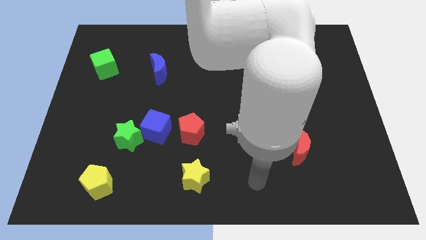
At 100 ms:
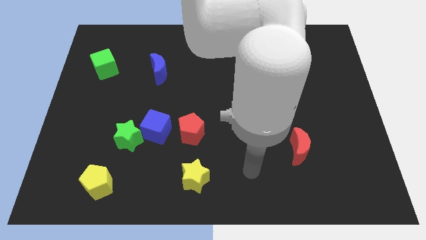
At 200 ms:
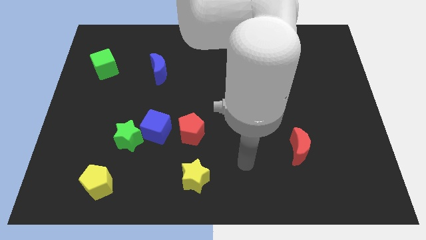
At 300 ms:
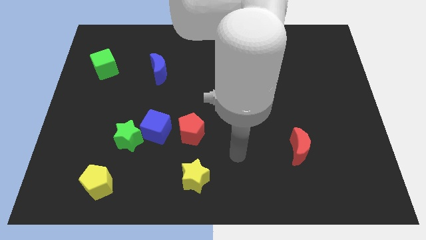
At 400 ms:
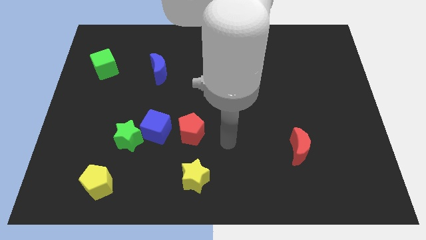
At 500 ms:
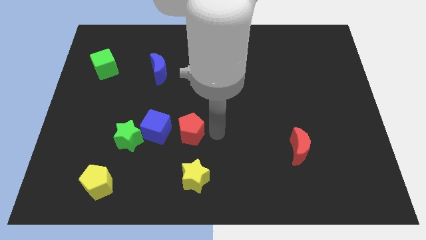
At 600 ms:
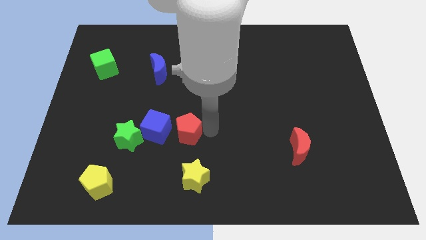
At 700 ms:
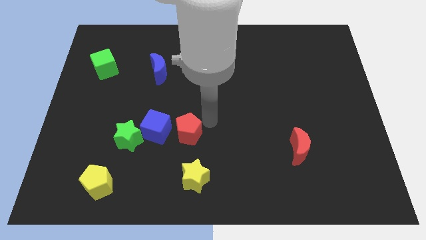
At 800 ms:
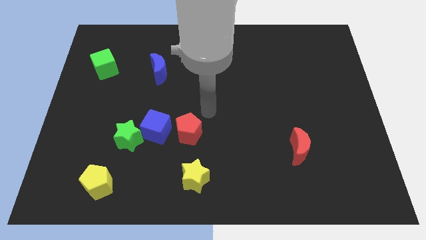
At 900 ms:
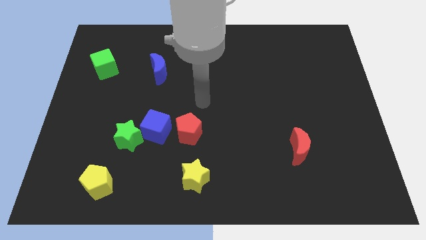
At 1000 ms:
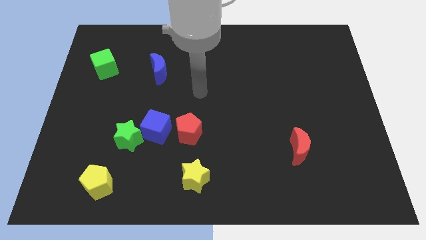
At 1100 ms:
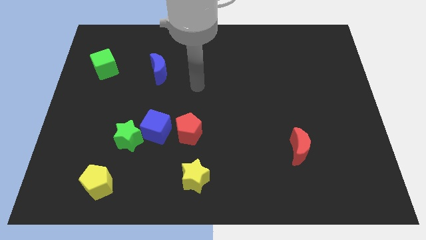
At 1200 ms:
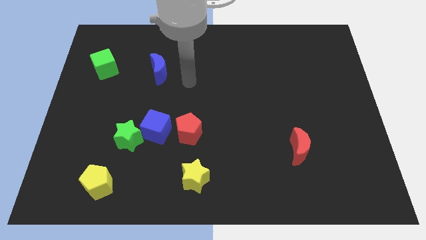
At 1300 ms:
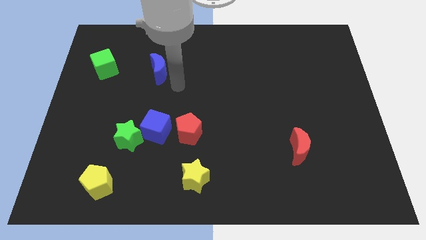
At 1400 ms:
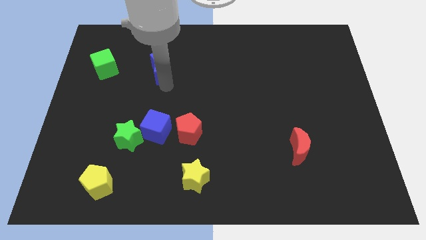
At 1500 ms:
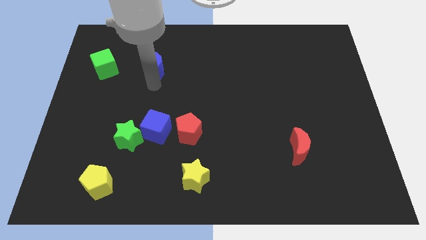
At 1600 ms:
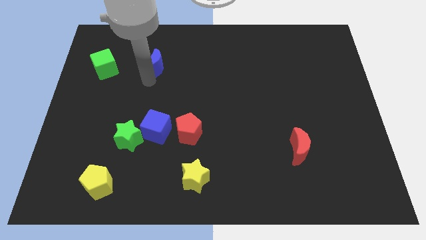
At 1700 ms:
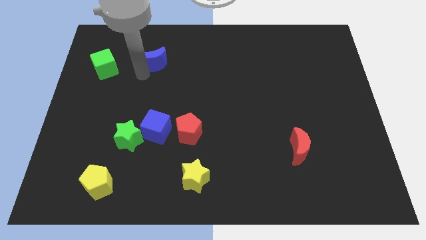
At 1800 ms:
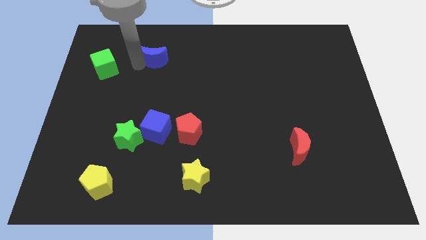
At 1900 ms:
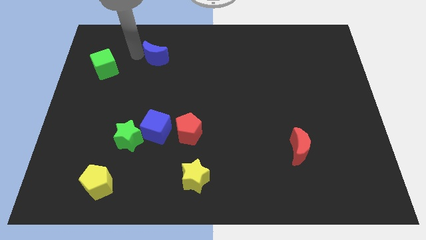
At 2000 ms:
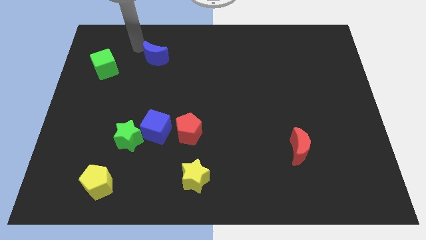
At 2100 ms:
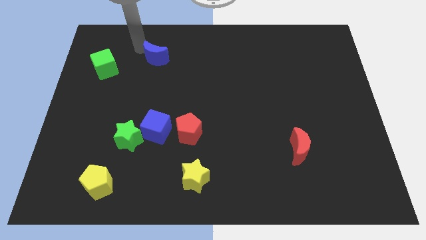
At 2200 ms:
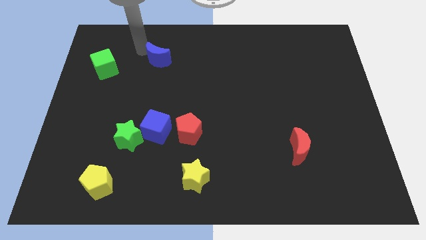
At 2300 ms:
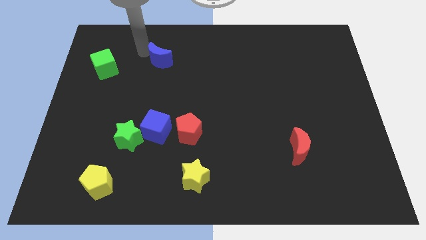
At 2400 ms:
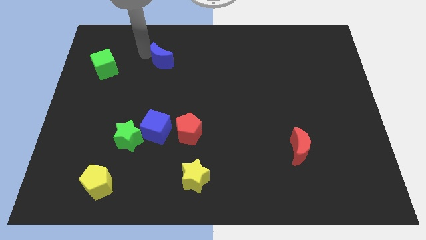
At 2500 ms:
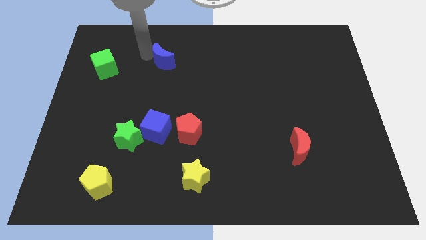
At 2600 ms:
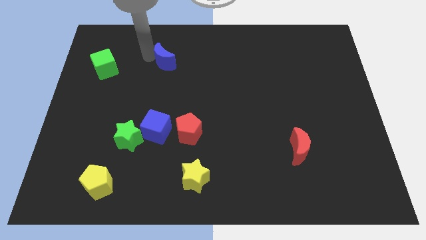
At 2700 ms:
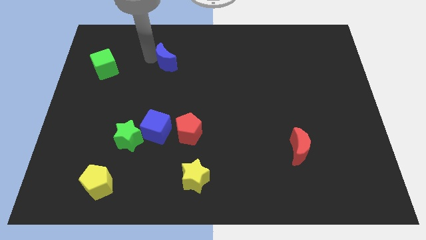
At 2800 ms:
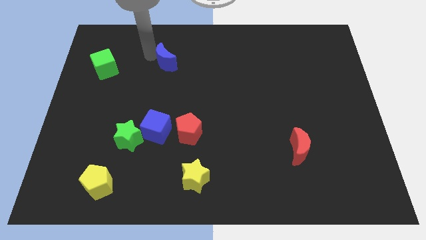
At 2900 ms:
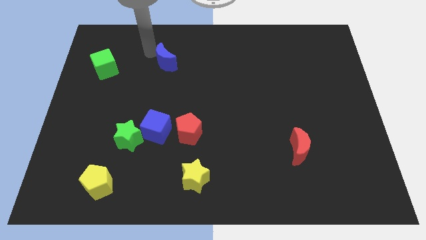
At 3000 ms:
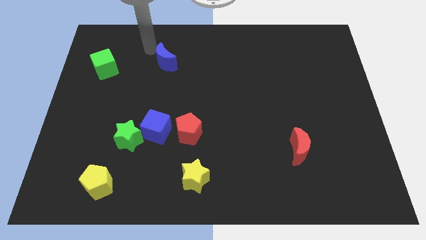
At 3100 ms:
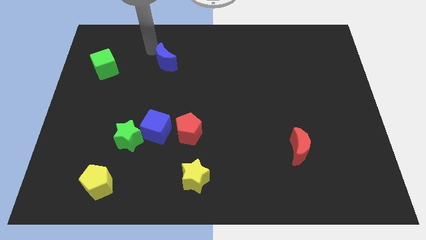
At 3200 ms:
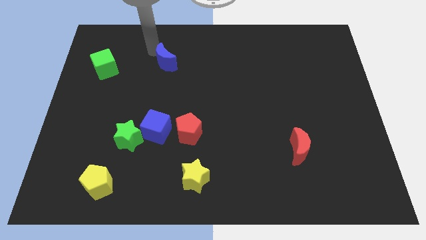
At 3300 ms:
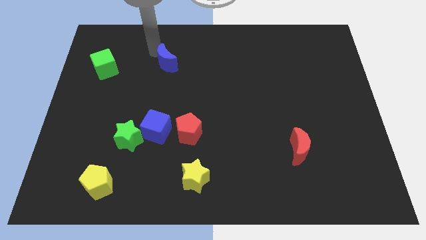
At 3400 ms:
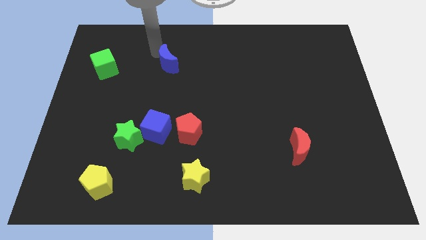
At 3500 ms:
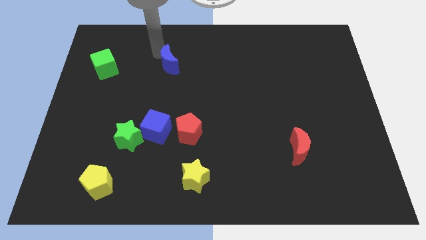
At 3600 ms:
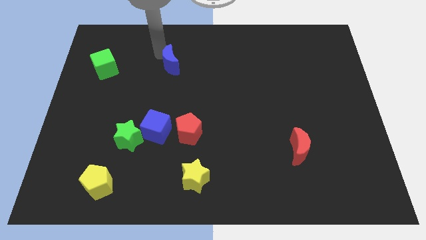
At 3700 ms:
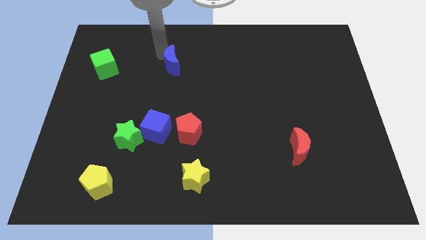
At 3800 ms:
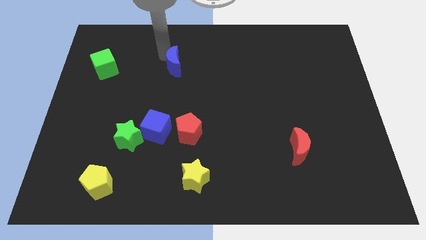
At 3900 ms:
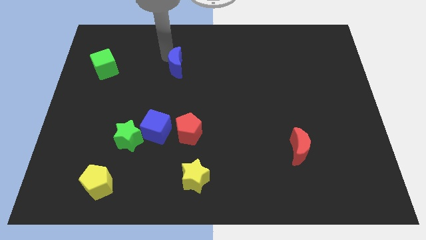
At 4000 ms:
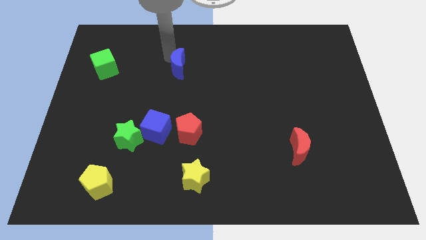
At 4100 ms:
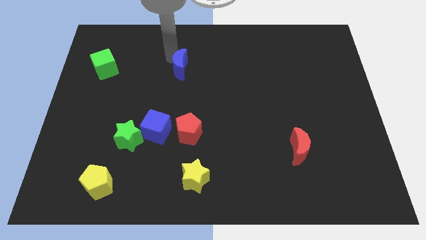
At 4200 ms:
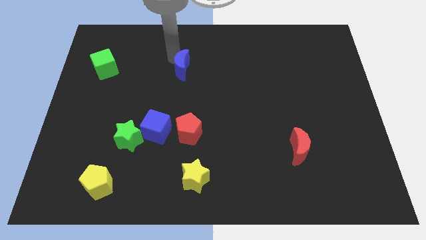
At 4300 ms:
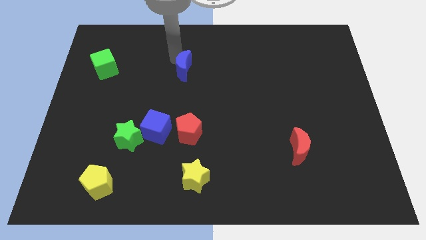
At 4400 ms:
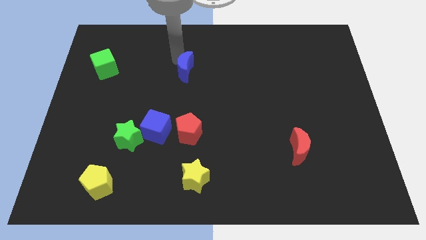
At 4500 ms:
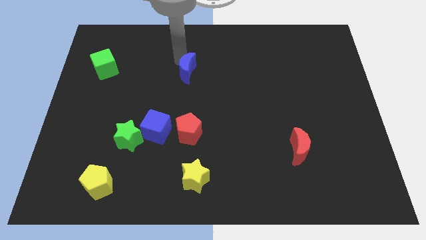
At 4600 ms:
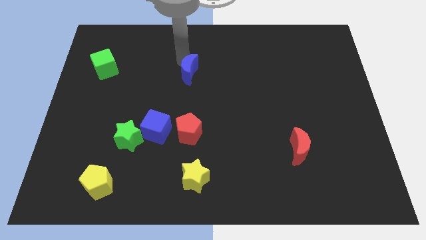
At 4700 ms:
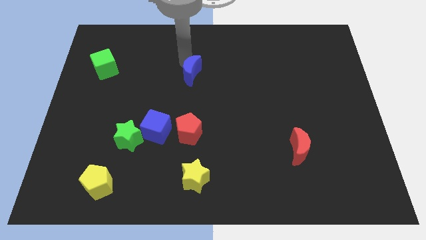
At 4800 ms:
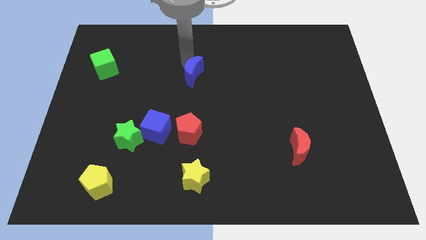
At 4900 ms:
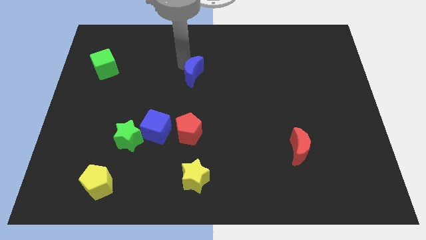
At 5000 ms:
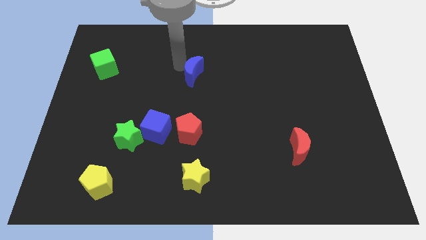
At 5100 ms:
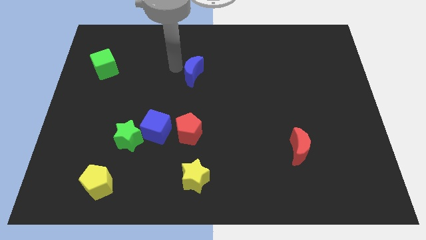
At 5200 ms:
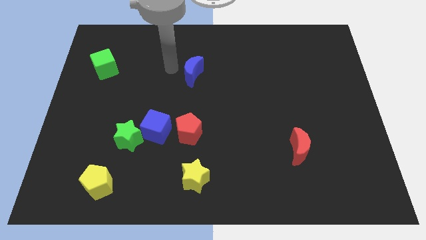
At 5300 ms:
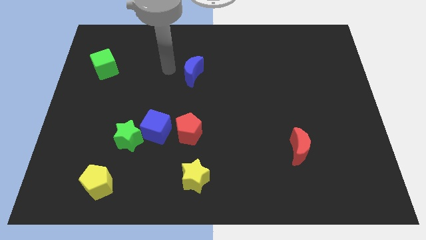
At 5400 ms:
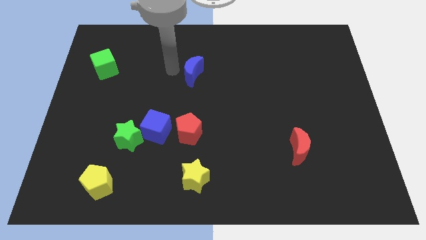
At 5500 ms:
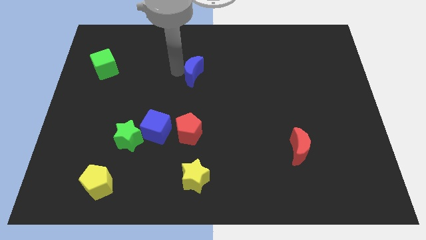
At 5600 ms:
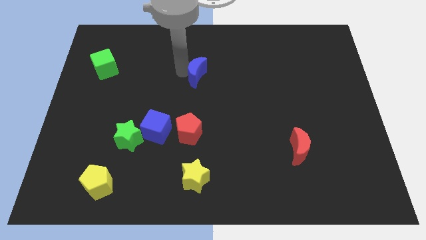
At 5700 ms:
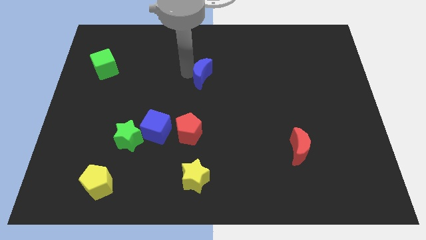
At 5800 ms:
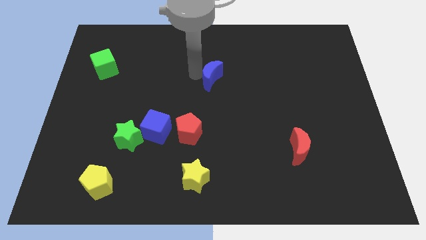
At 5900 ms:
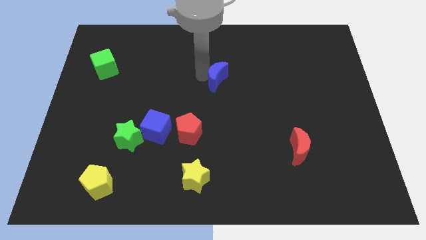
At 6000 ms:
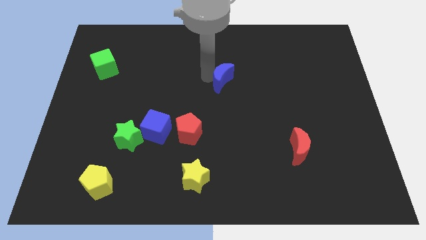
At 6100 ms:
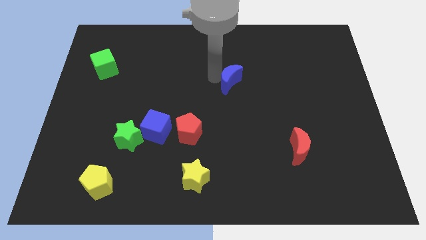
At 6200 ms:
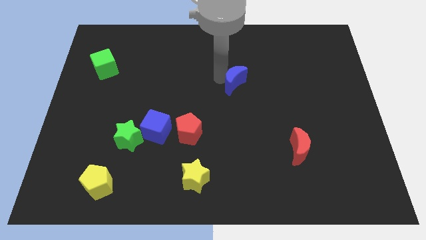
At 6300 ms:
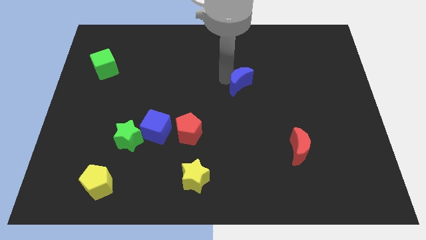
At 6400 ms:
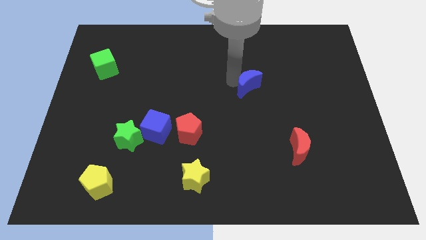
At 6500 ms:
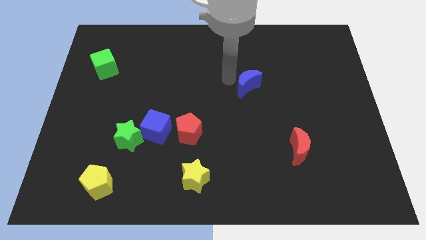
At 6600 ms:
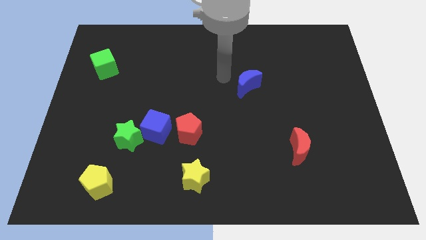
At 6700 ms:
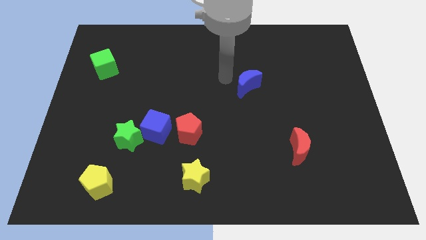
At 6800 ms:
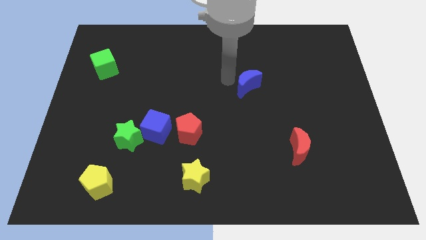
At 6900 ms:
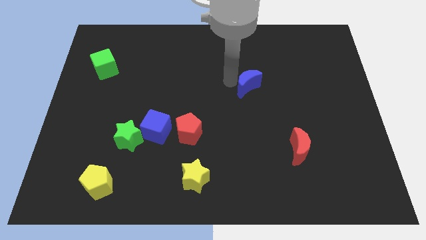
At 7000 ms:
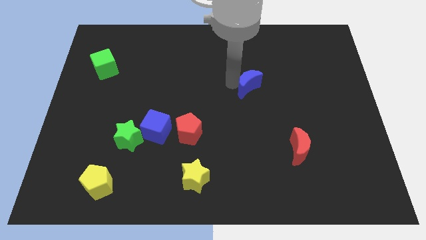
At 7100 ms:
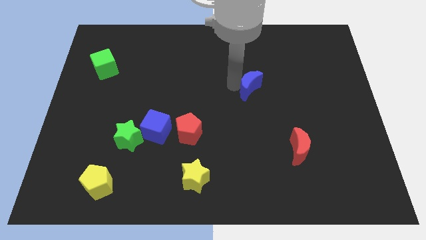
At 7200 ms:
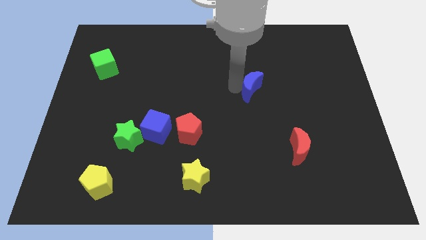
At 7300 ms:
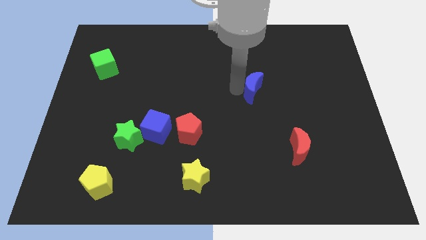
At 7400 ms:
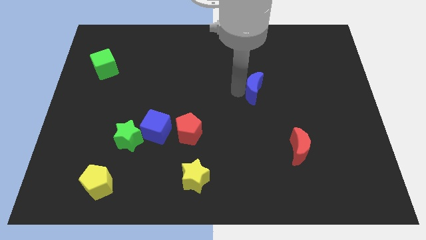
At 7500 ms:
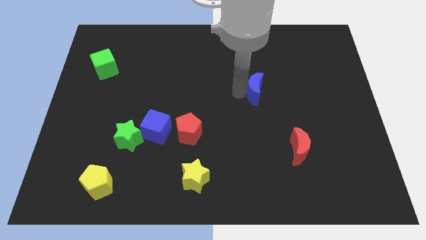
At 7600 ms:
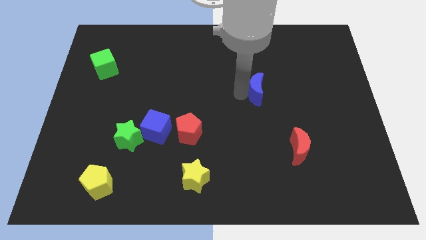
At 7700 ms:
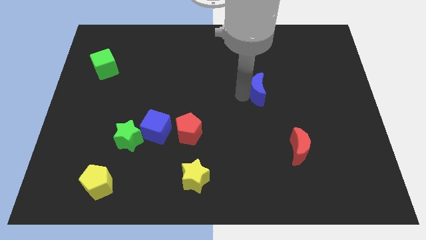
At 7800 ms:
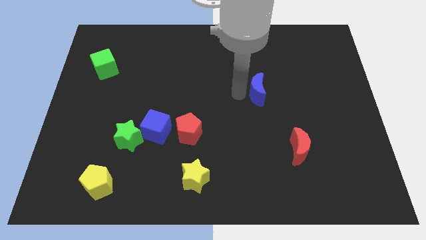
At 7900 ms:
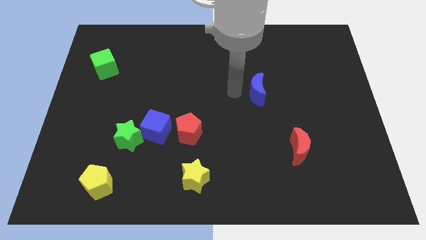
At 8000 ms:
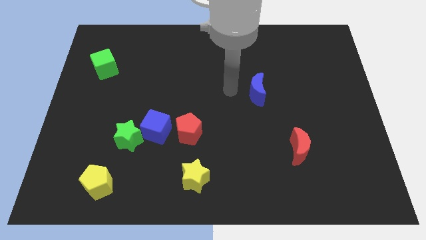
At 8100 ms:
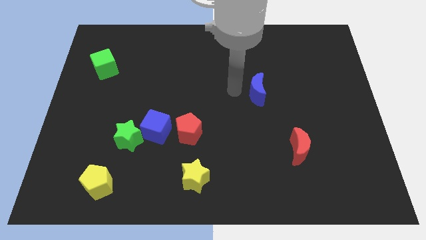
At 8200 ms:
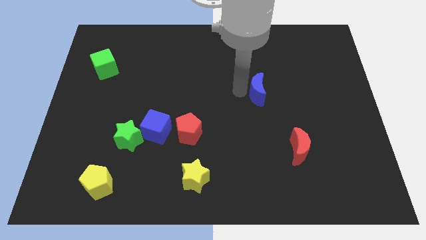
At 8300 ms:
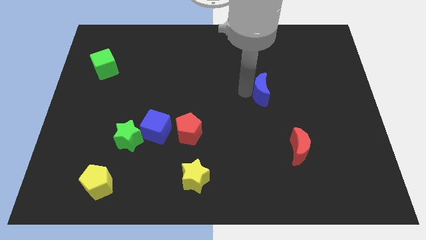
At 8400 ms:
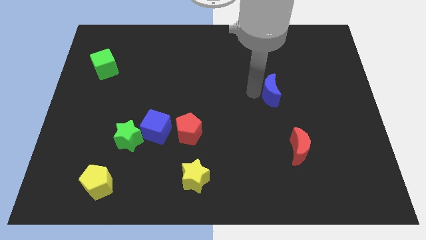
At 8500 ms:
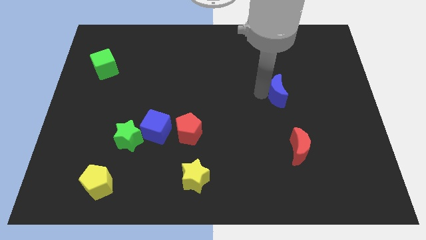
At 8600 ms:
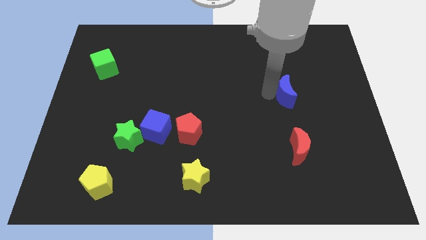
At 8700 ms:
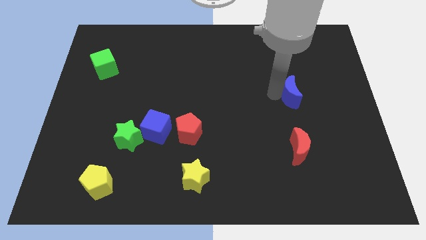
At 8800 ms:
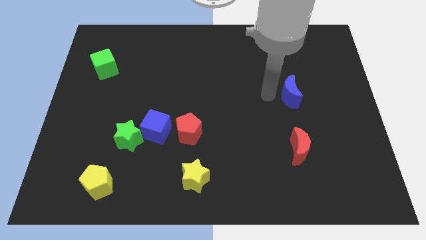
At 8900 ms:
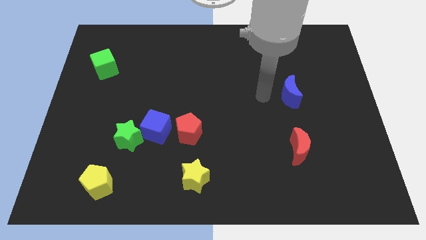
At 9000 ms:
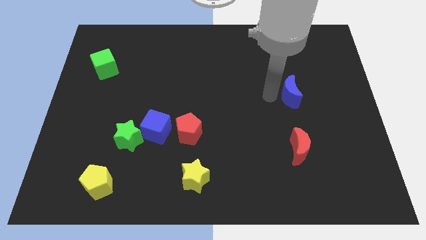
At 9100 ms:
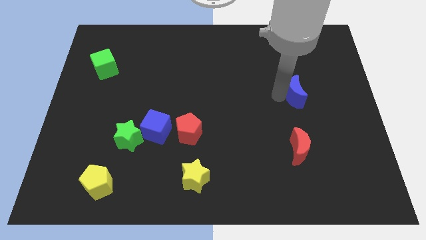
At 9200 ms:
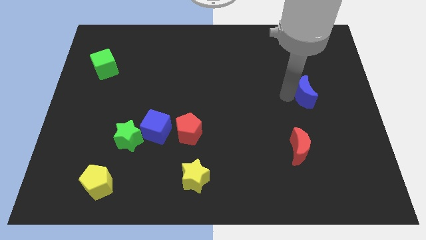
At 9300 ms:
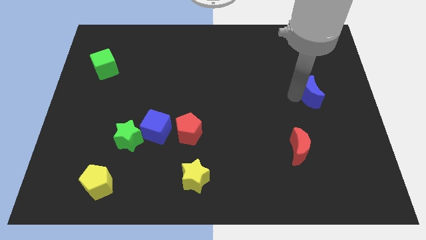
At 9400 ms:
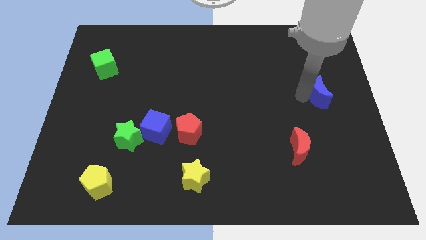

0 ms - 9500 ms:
push the blue moon to the right side of the board
